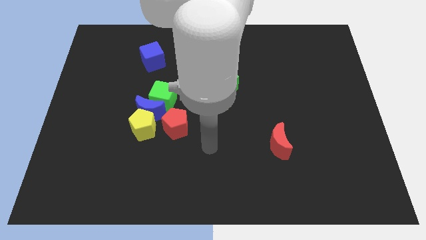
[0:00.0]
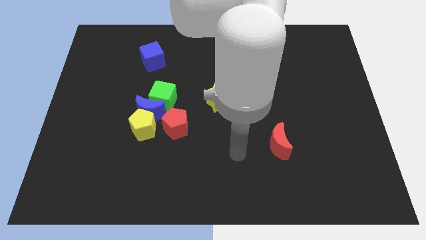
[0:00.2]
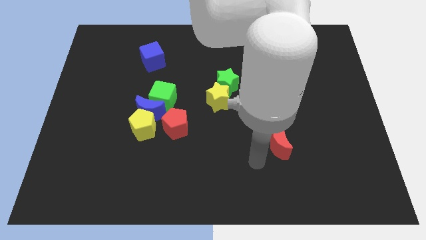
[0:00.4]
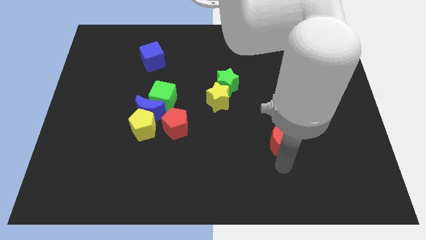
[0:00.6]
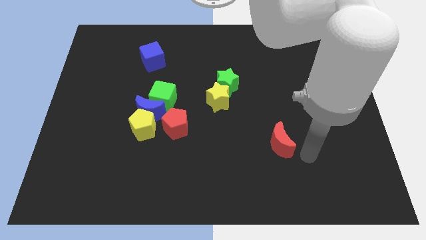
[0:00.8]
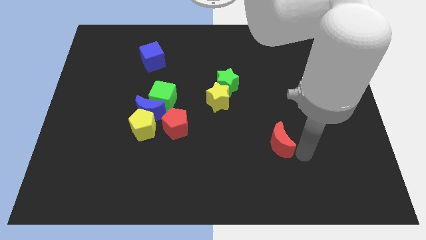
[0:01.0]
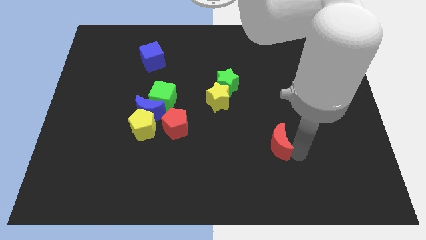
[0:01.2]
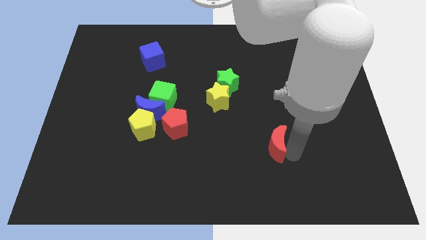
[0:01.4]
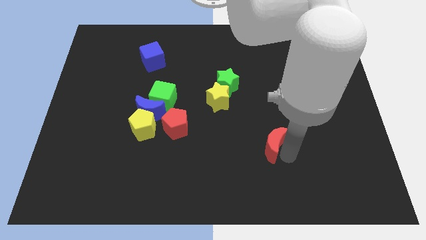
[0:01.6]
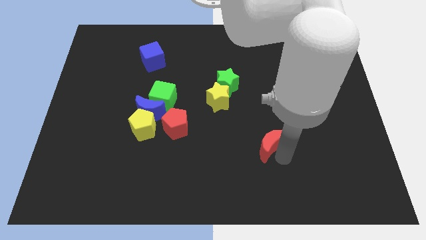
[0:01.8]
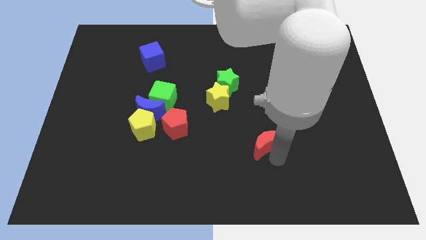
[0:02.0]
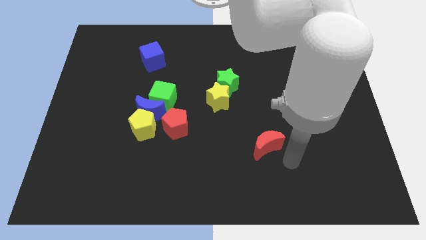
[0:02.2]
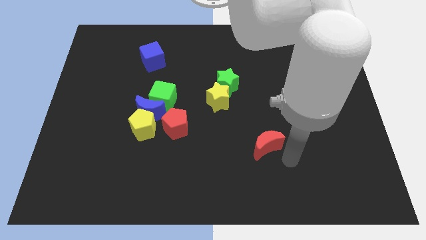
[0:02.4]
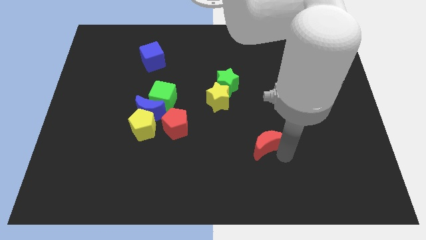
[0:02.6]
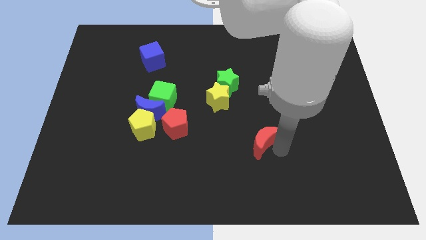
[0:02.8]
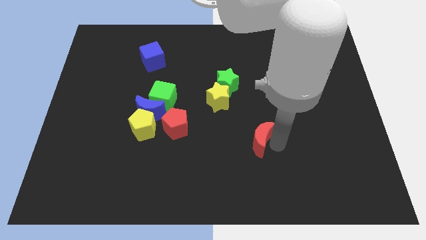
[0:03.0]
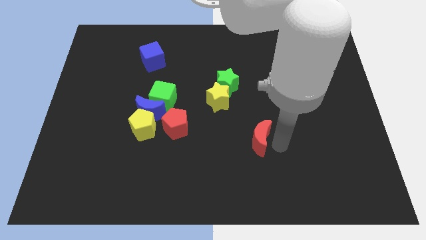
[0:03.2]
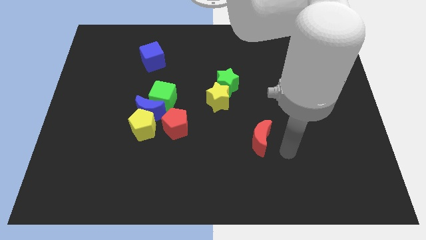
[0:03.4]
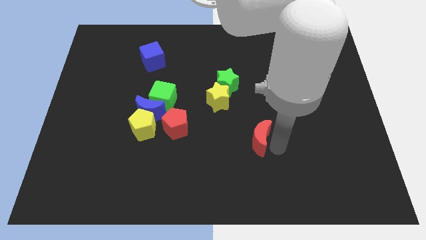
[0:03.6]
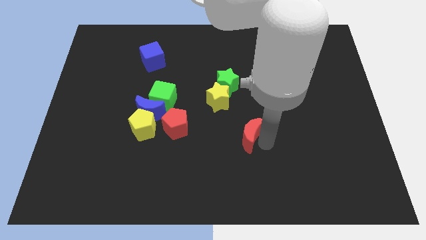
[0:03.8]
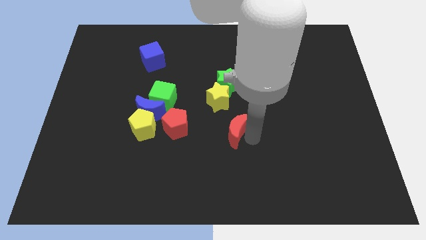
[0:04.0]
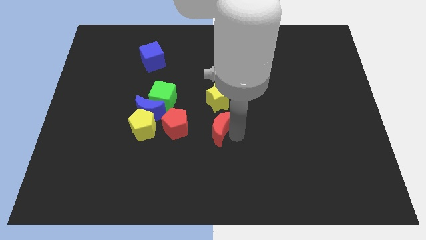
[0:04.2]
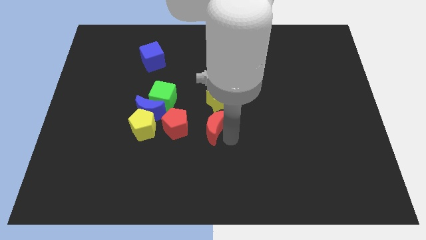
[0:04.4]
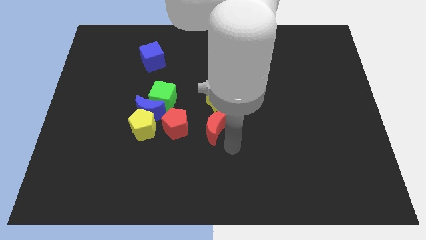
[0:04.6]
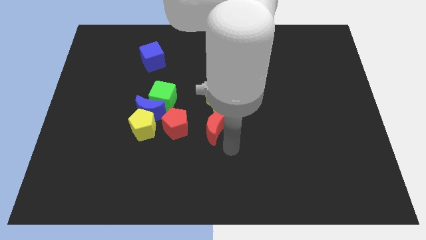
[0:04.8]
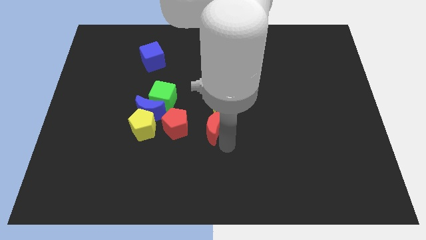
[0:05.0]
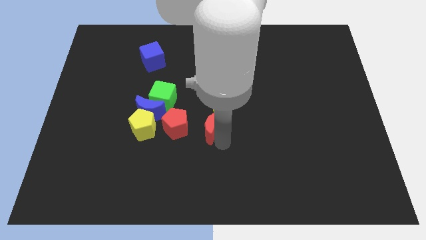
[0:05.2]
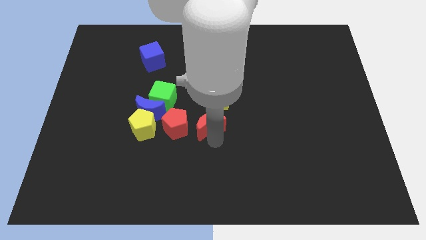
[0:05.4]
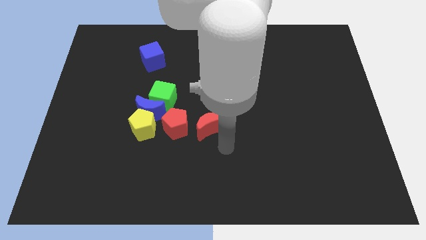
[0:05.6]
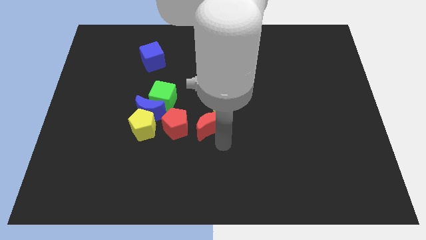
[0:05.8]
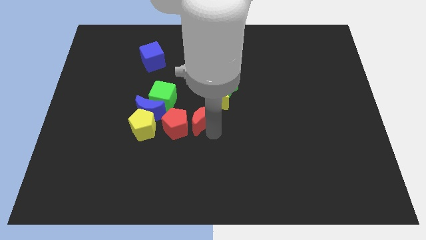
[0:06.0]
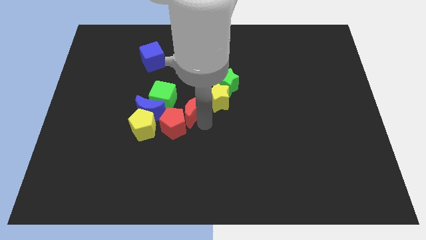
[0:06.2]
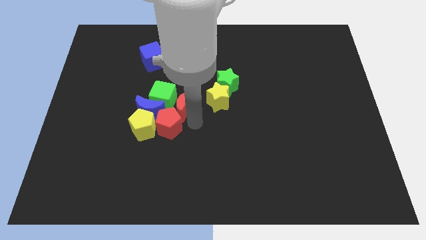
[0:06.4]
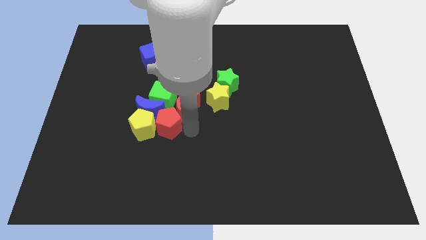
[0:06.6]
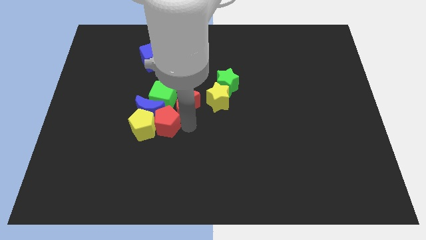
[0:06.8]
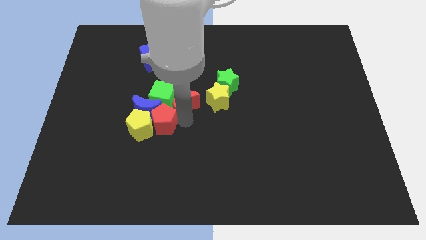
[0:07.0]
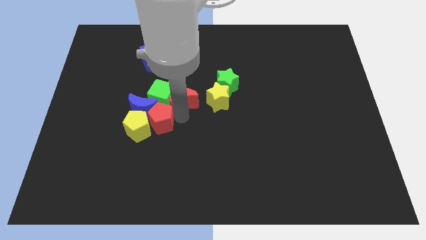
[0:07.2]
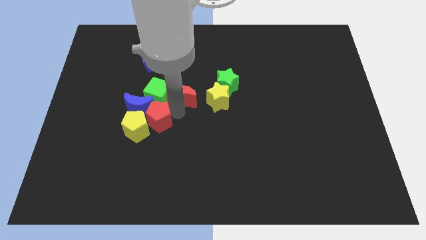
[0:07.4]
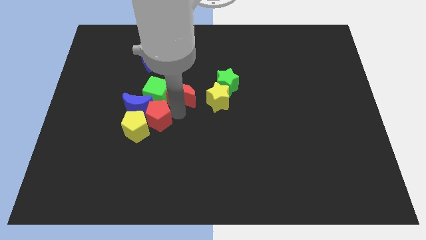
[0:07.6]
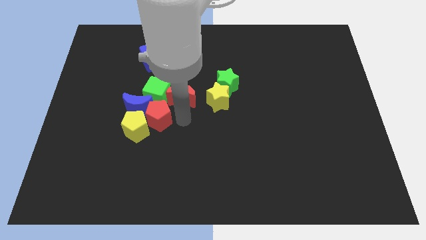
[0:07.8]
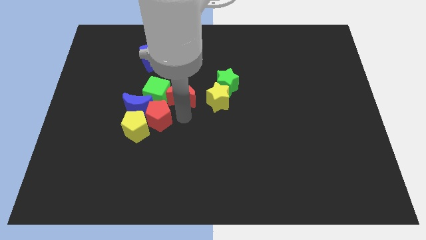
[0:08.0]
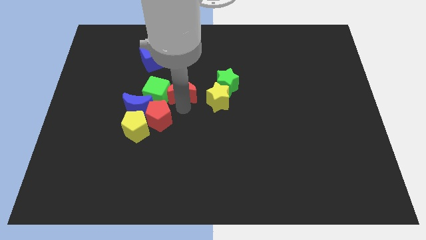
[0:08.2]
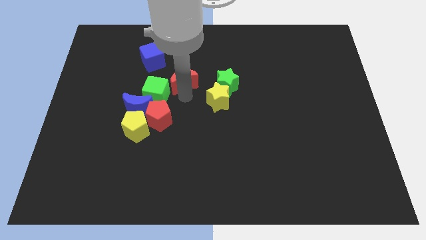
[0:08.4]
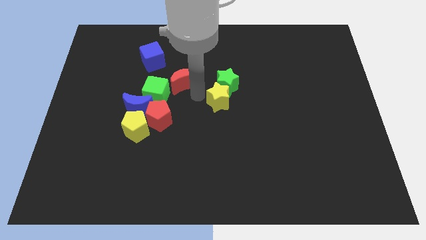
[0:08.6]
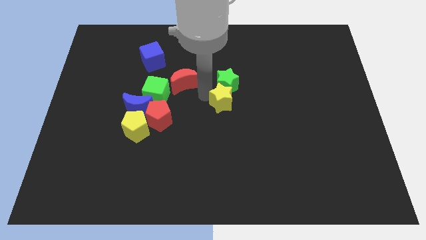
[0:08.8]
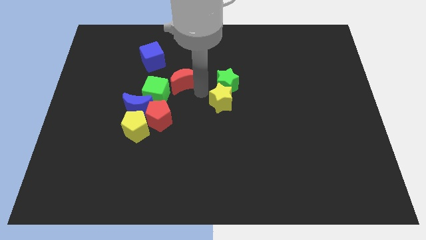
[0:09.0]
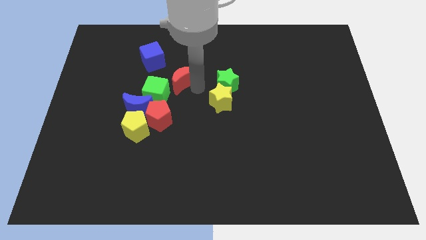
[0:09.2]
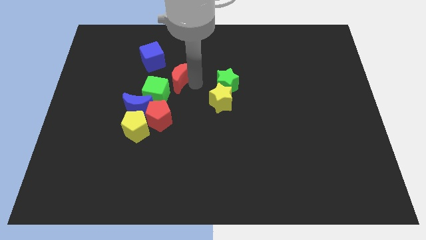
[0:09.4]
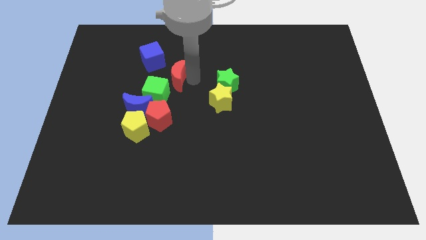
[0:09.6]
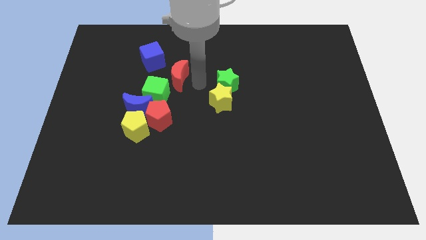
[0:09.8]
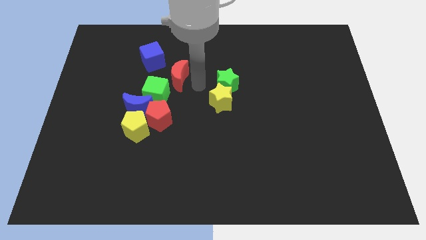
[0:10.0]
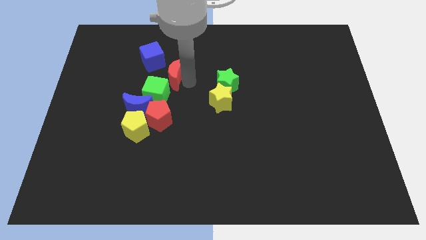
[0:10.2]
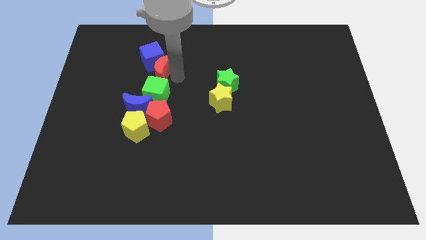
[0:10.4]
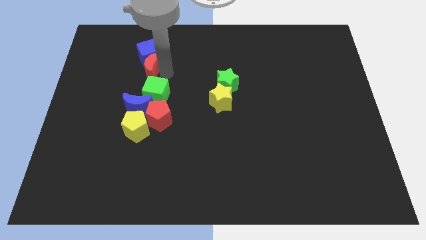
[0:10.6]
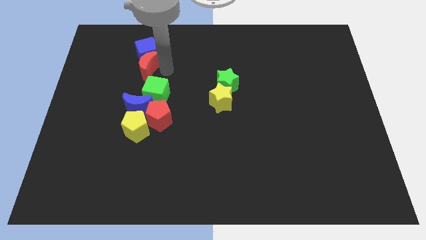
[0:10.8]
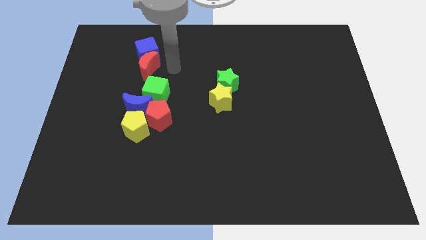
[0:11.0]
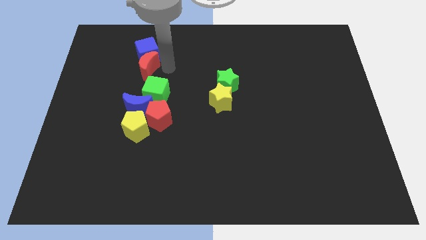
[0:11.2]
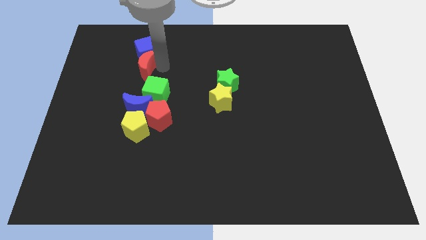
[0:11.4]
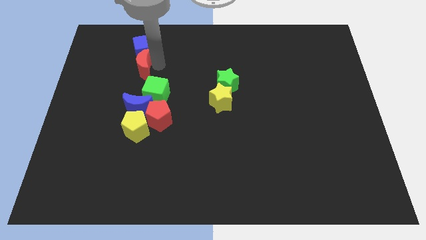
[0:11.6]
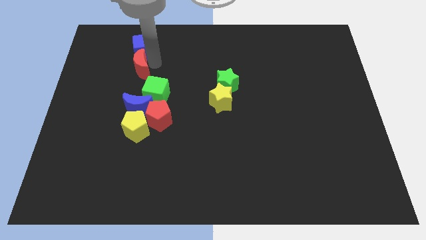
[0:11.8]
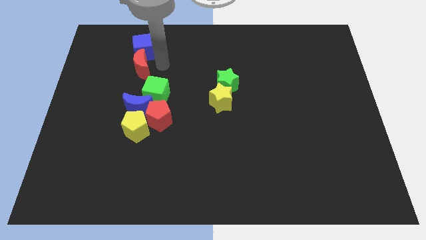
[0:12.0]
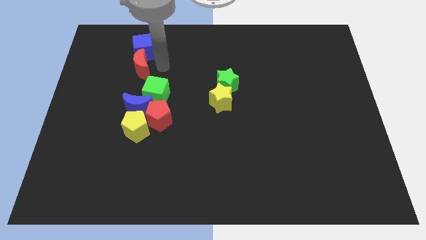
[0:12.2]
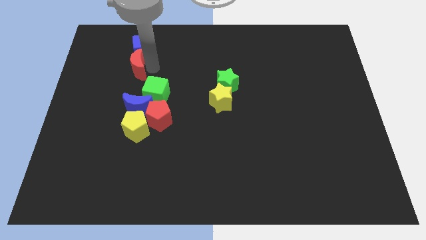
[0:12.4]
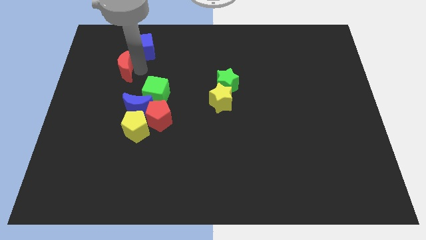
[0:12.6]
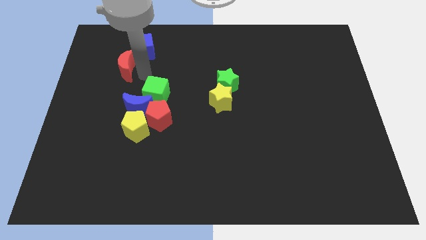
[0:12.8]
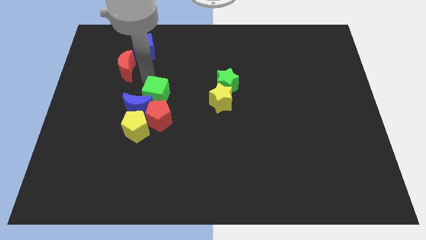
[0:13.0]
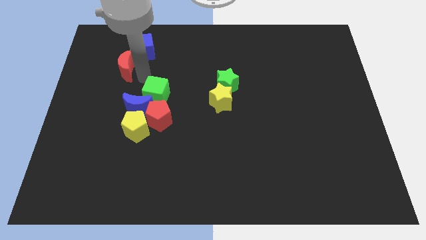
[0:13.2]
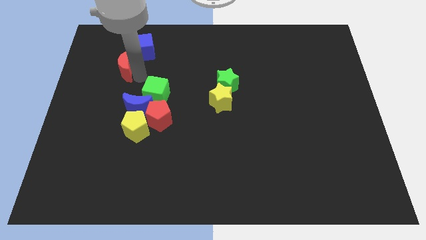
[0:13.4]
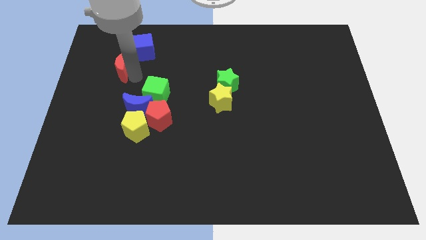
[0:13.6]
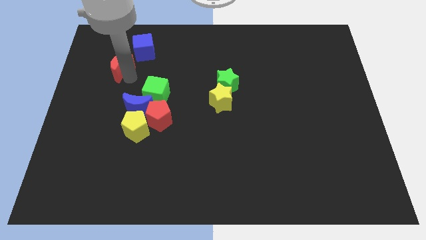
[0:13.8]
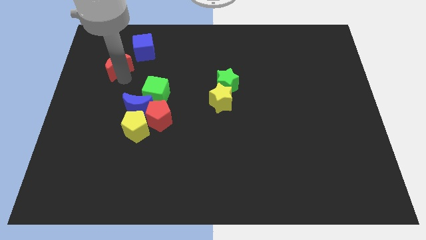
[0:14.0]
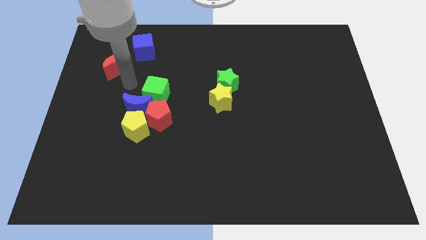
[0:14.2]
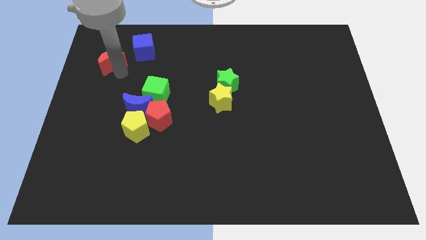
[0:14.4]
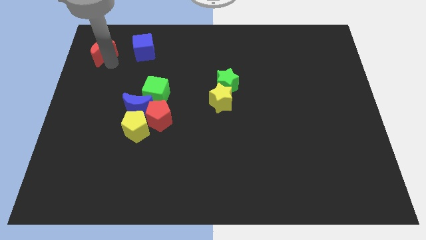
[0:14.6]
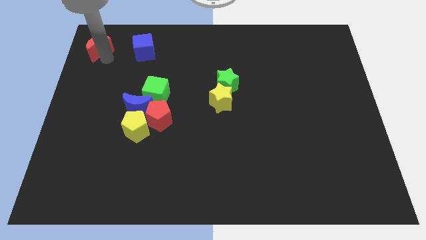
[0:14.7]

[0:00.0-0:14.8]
move the red moon to the top left corner
